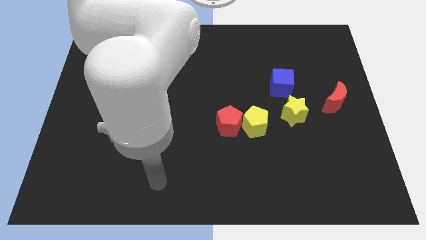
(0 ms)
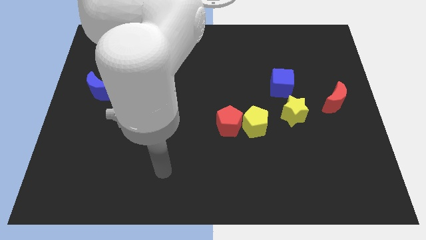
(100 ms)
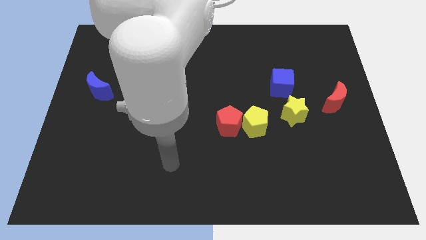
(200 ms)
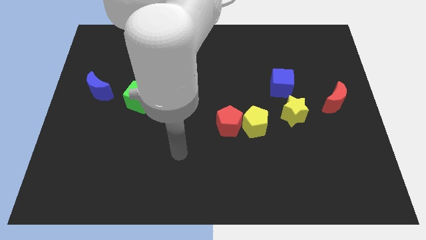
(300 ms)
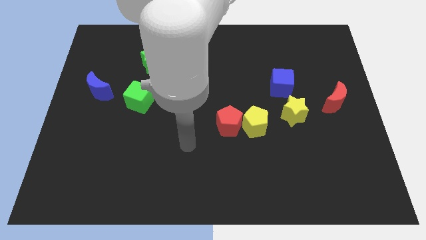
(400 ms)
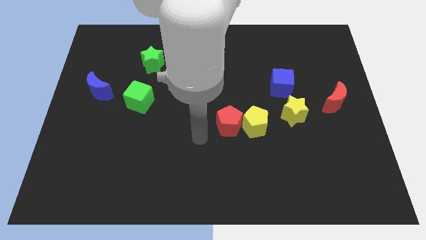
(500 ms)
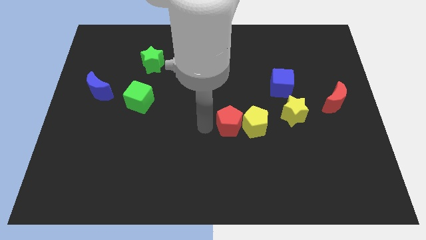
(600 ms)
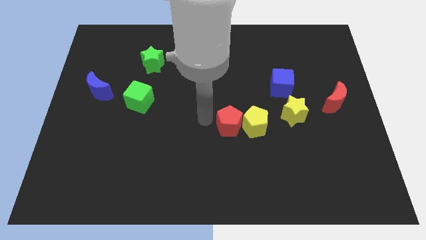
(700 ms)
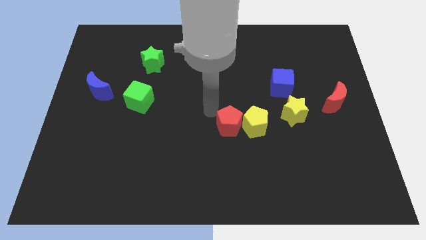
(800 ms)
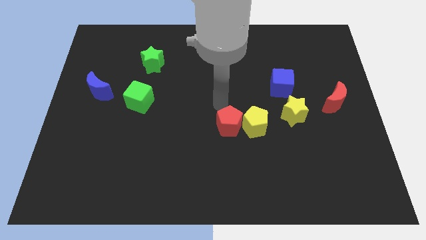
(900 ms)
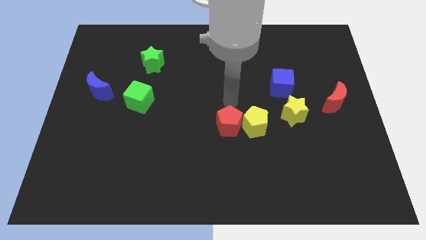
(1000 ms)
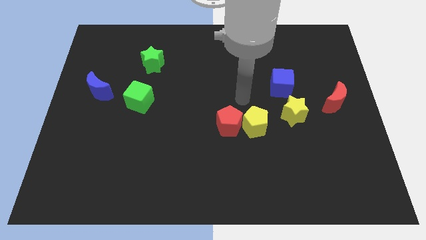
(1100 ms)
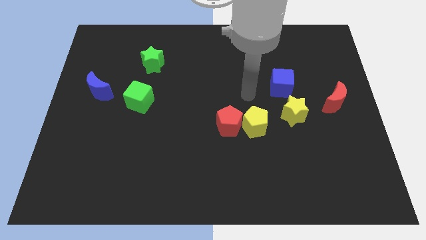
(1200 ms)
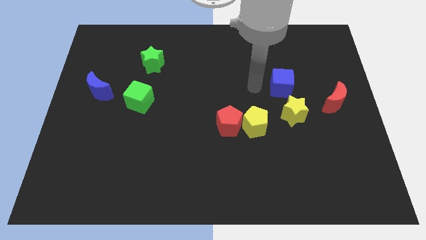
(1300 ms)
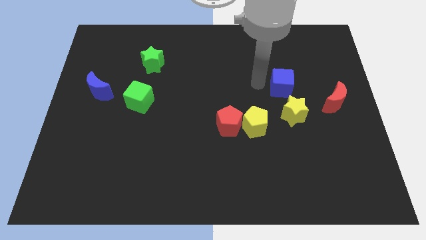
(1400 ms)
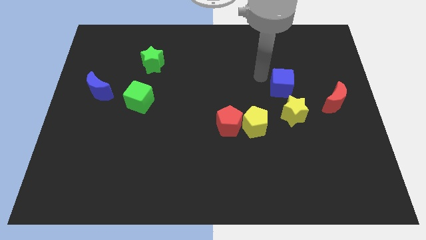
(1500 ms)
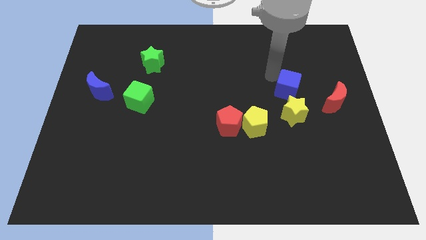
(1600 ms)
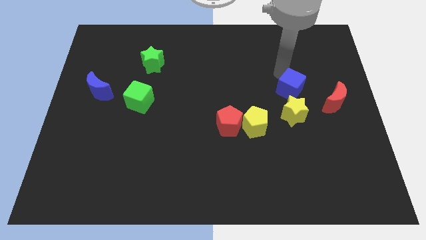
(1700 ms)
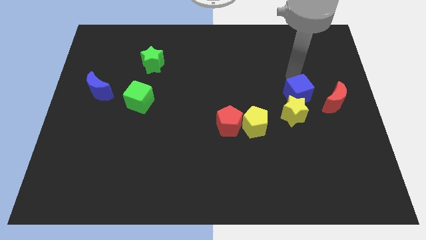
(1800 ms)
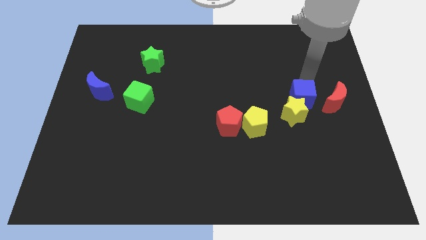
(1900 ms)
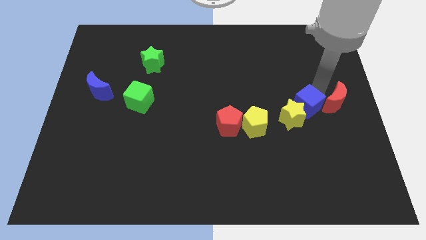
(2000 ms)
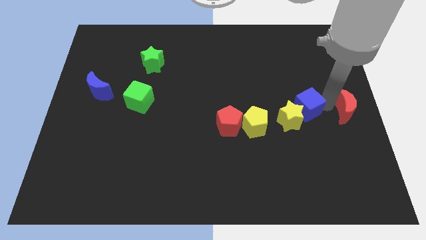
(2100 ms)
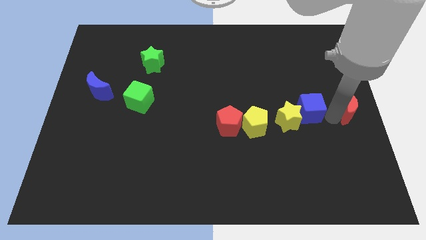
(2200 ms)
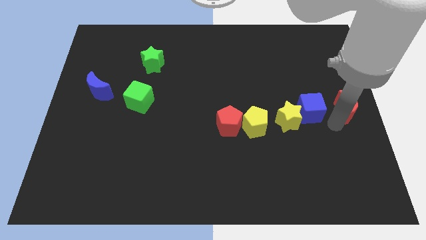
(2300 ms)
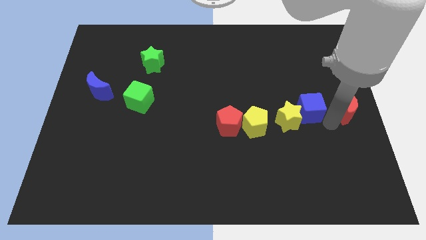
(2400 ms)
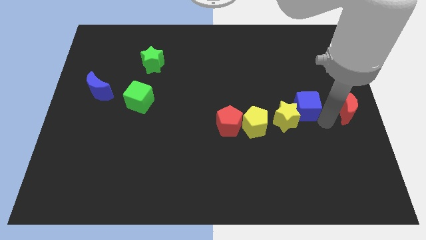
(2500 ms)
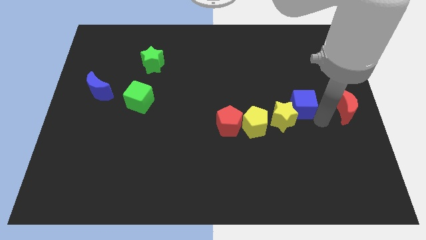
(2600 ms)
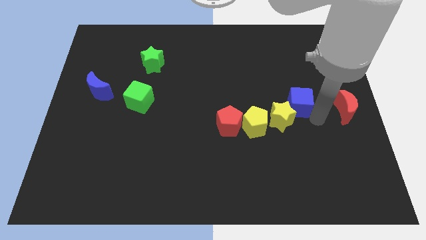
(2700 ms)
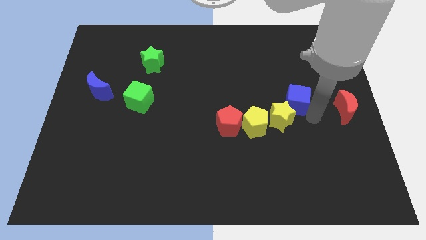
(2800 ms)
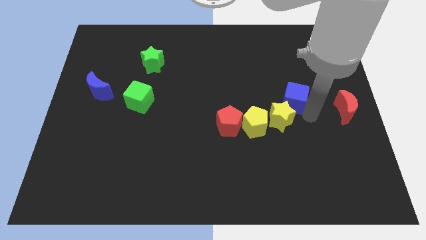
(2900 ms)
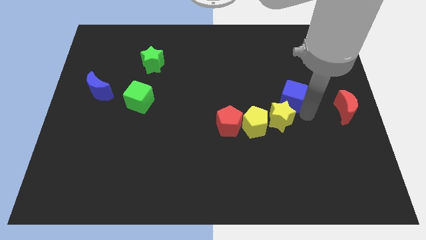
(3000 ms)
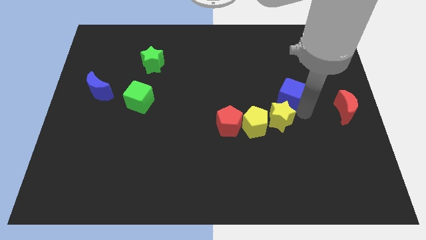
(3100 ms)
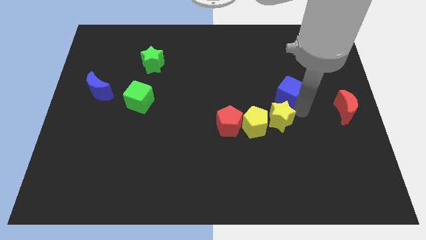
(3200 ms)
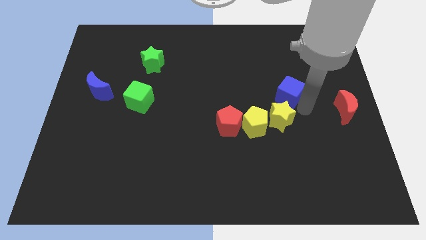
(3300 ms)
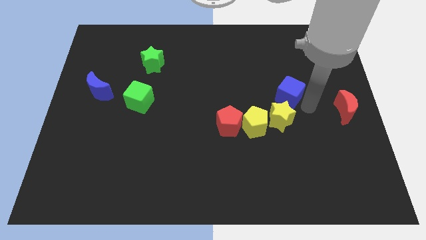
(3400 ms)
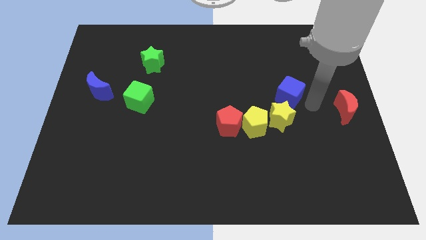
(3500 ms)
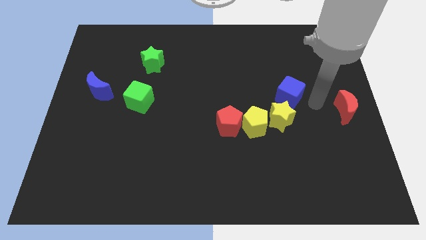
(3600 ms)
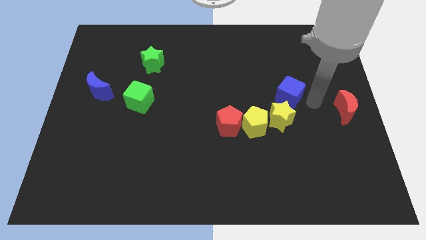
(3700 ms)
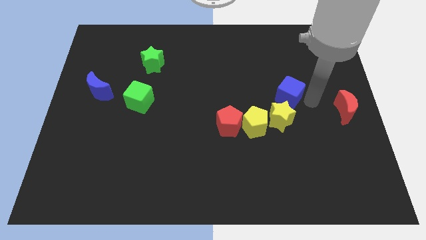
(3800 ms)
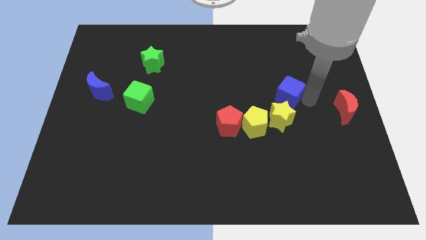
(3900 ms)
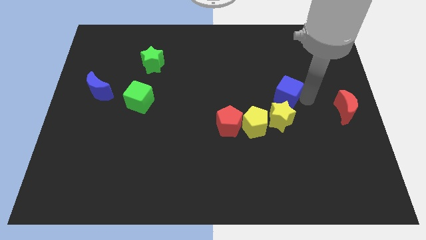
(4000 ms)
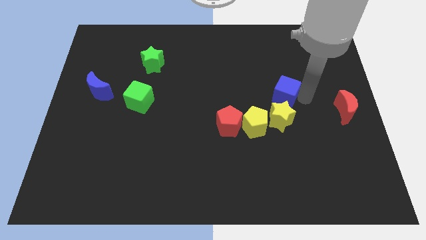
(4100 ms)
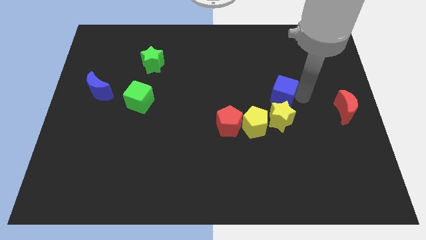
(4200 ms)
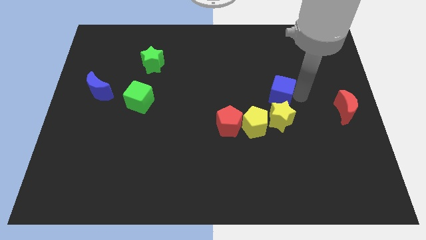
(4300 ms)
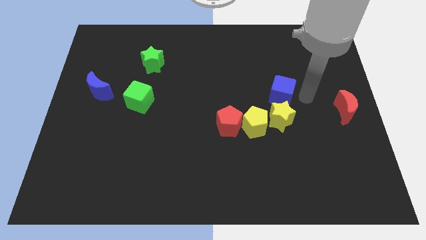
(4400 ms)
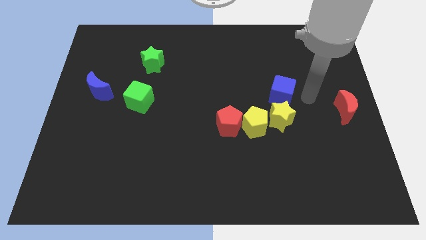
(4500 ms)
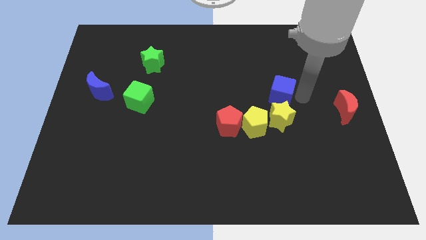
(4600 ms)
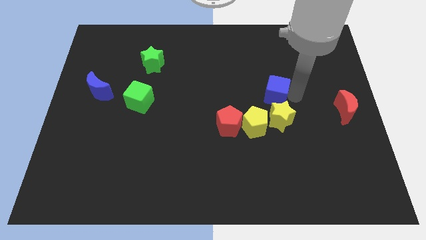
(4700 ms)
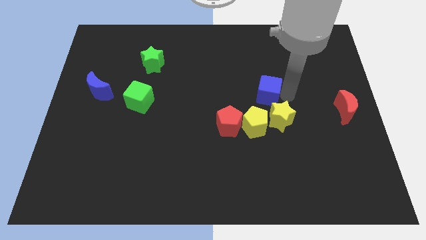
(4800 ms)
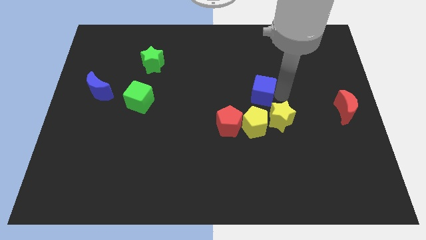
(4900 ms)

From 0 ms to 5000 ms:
push the blue cube to the center
